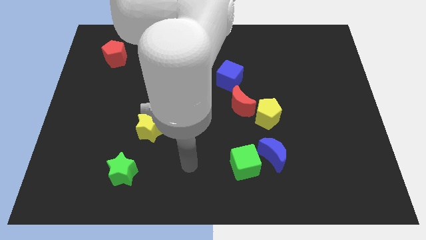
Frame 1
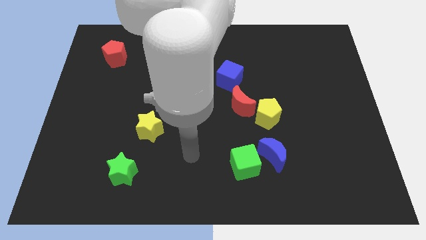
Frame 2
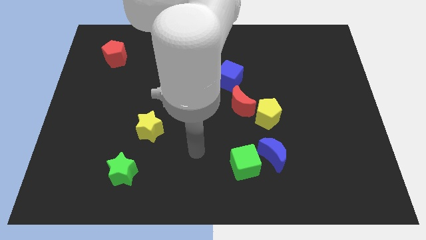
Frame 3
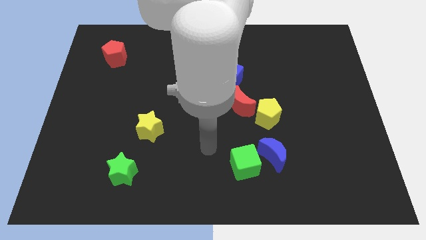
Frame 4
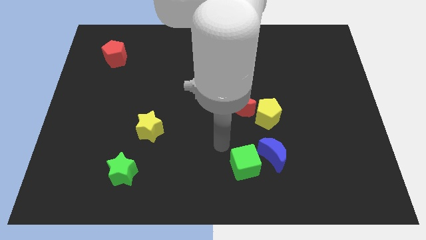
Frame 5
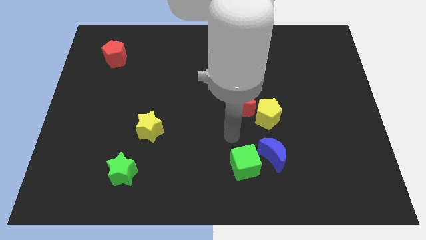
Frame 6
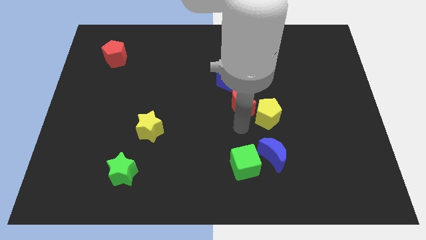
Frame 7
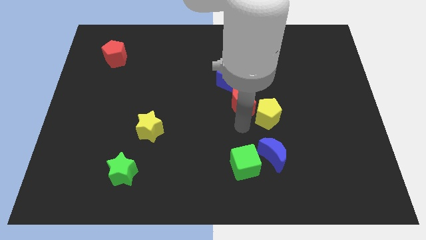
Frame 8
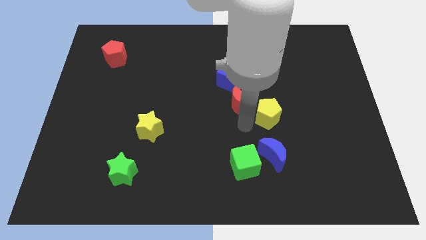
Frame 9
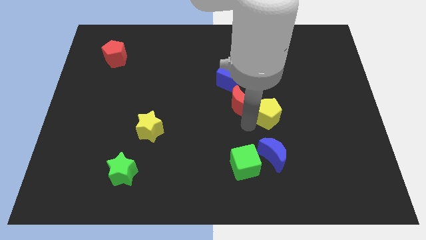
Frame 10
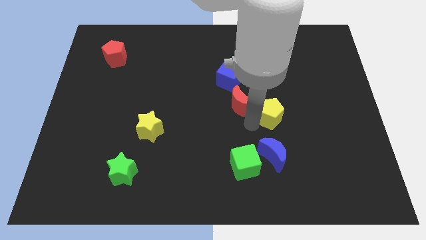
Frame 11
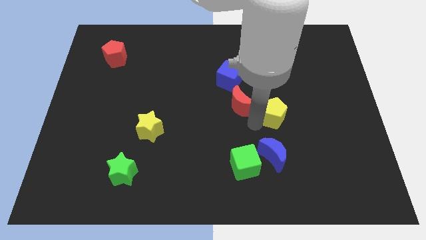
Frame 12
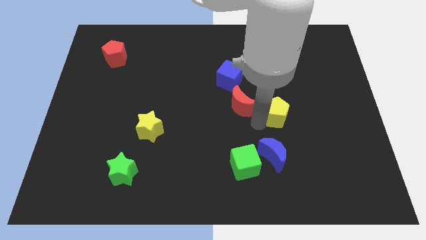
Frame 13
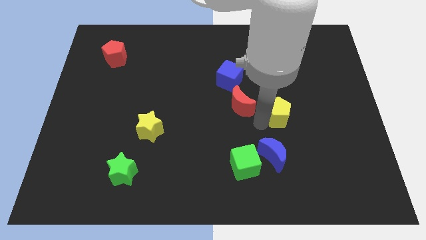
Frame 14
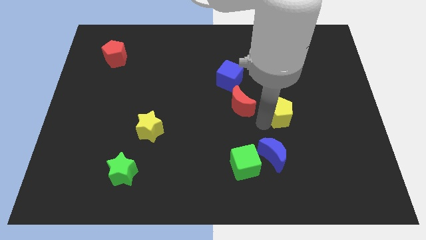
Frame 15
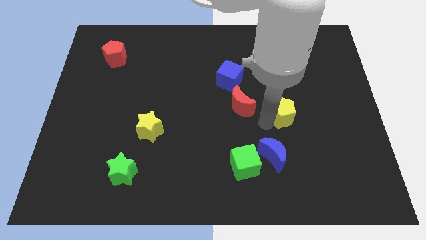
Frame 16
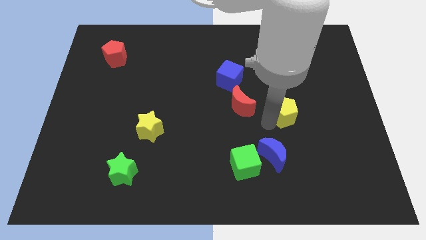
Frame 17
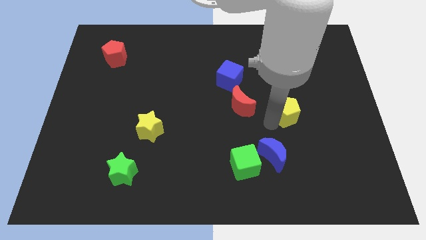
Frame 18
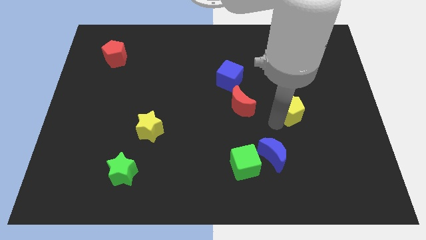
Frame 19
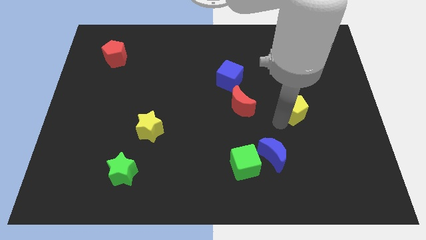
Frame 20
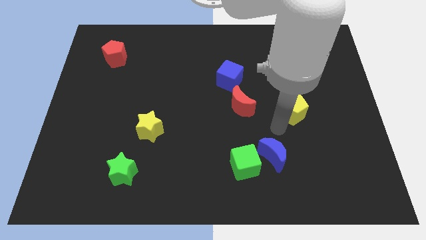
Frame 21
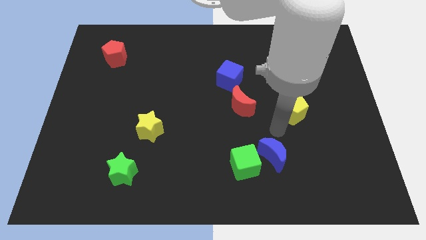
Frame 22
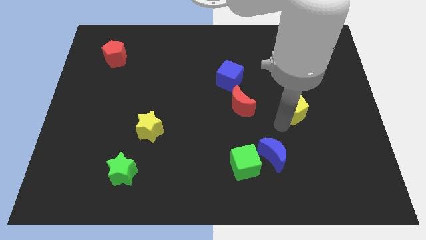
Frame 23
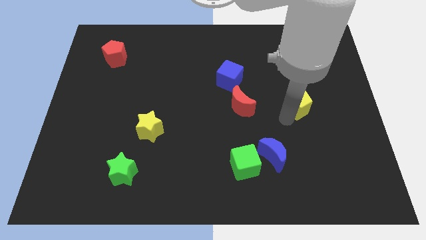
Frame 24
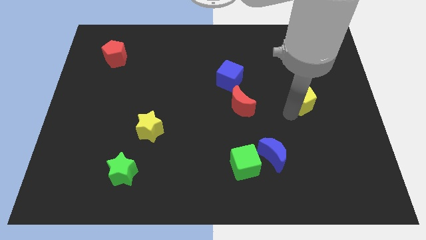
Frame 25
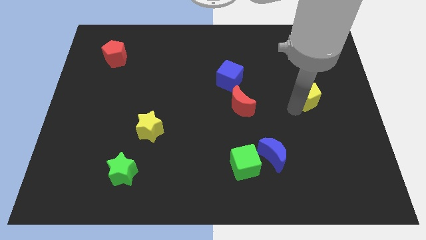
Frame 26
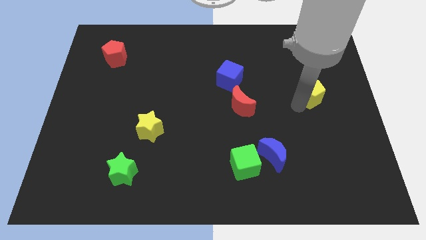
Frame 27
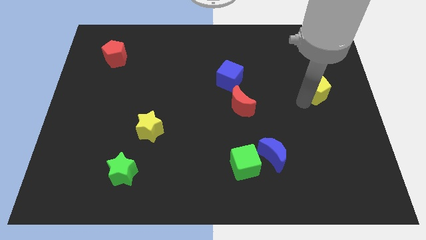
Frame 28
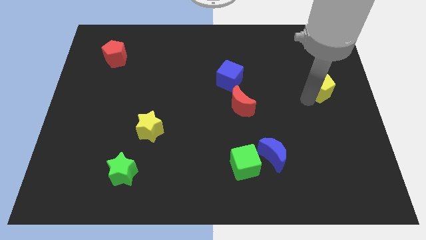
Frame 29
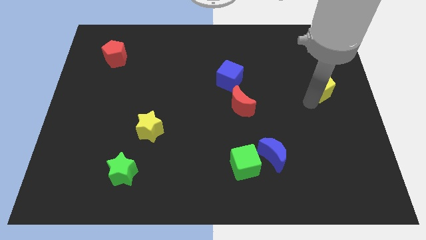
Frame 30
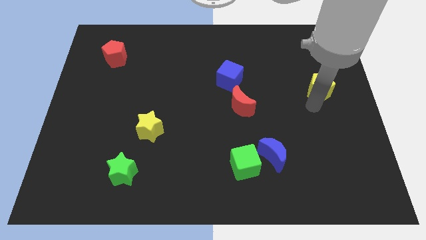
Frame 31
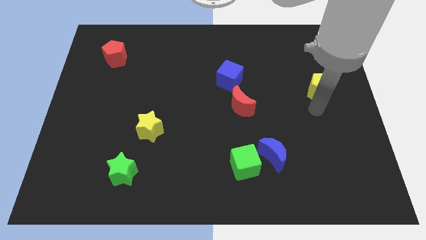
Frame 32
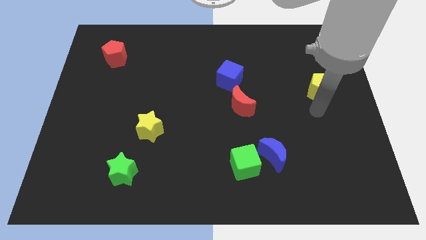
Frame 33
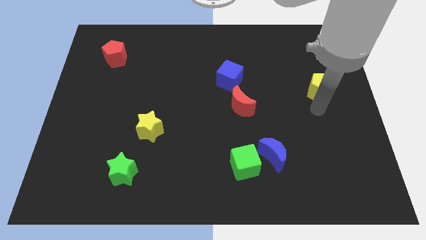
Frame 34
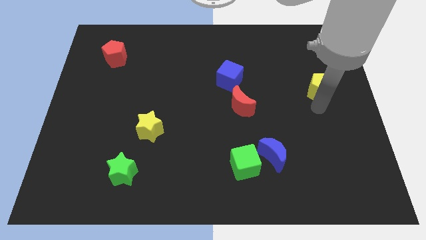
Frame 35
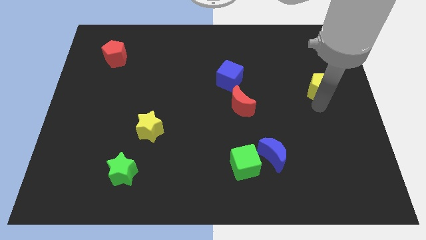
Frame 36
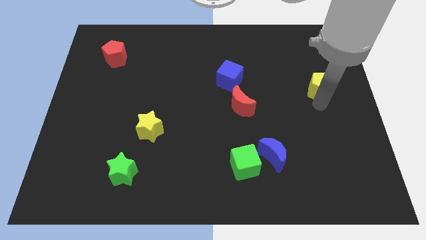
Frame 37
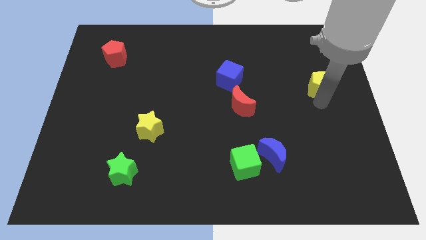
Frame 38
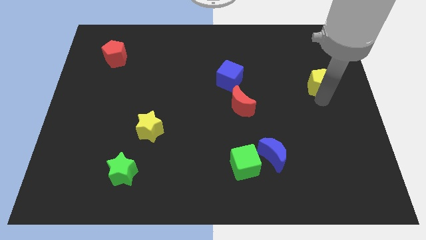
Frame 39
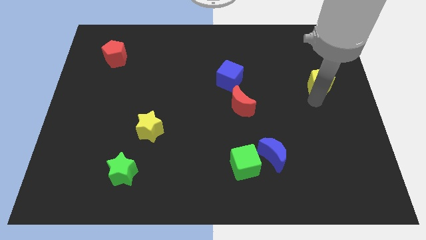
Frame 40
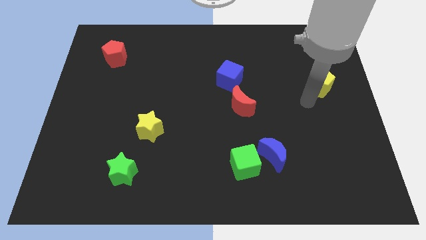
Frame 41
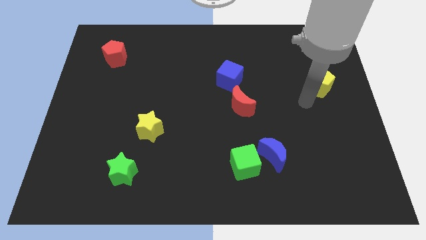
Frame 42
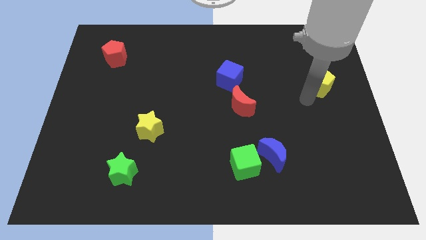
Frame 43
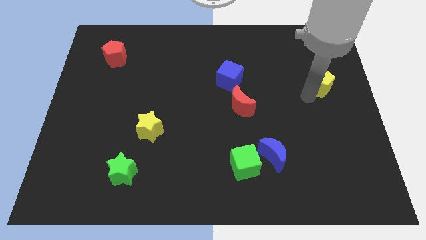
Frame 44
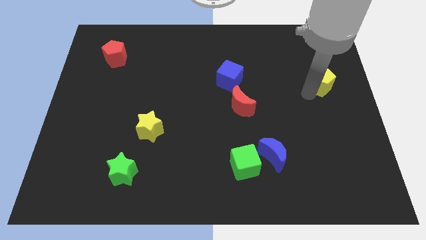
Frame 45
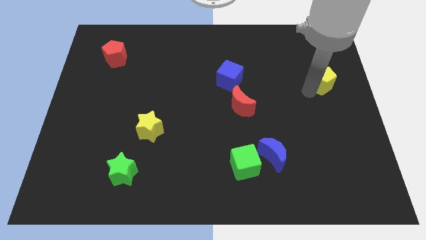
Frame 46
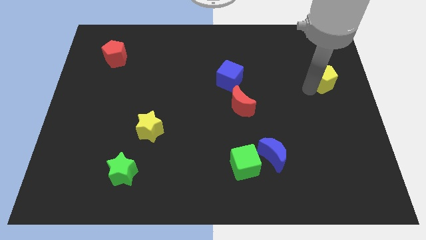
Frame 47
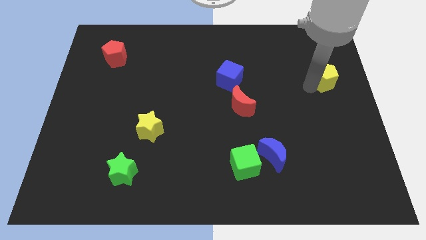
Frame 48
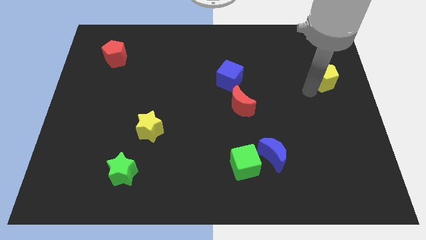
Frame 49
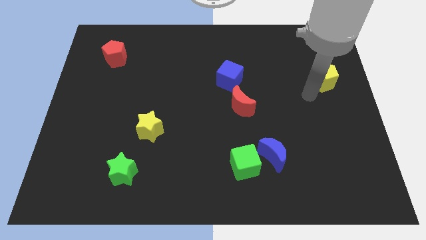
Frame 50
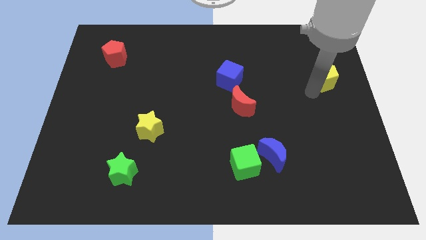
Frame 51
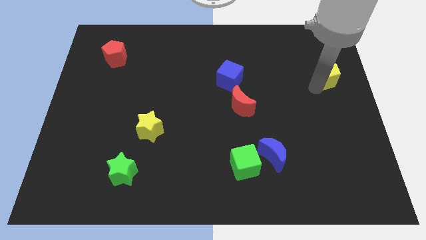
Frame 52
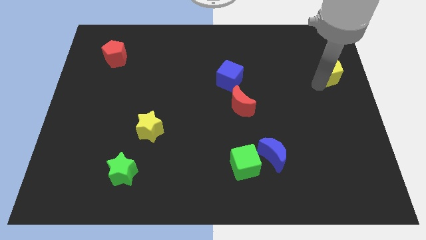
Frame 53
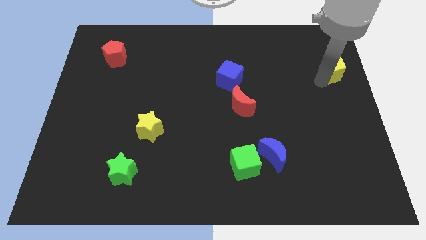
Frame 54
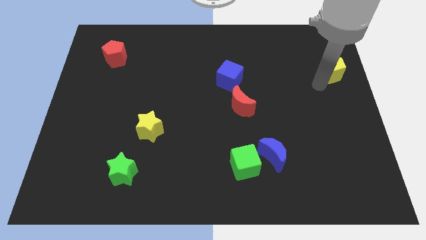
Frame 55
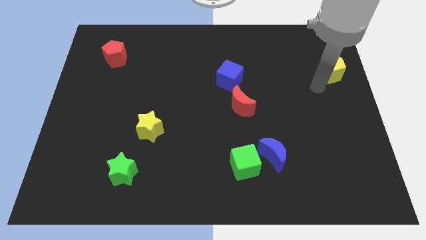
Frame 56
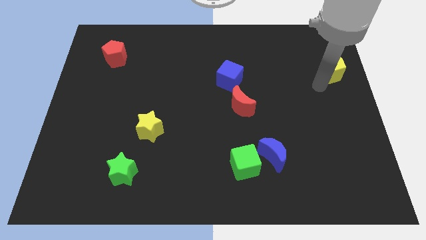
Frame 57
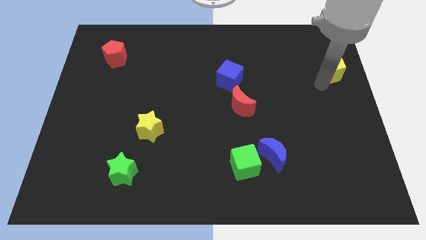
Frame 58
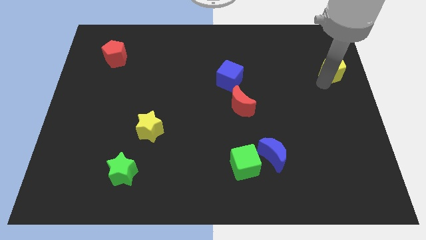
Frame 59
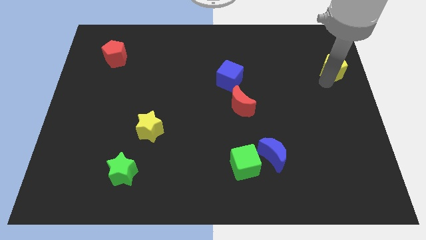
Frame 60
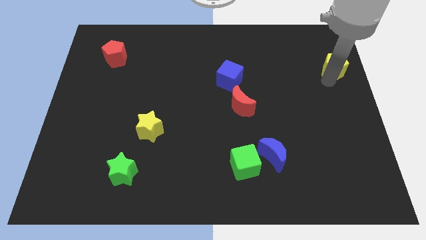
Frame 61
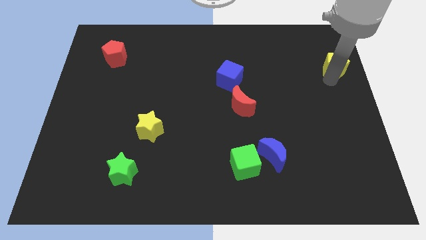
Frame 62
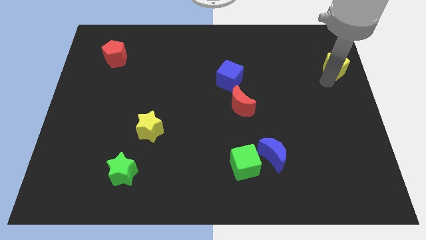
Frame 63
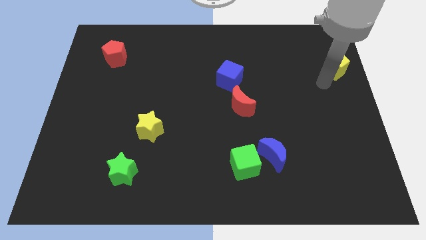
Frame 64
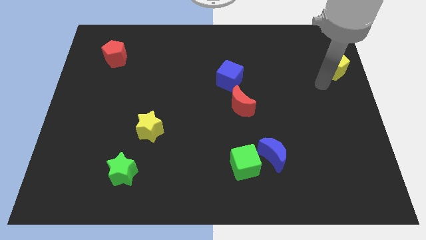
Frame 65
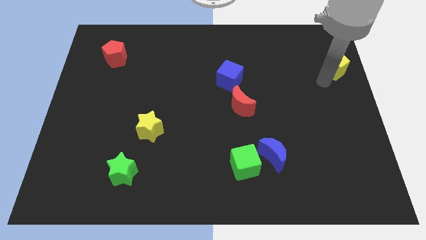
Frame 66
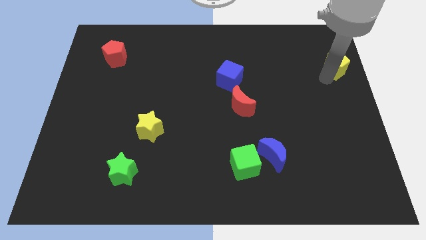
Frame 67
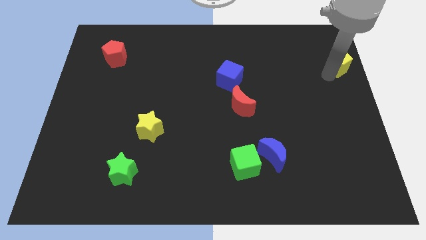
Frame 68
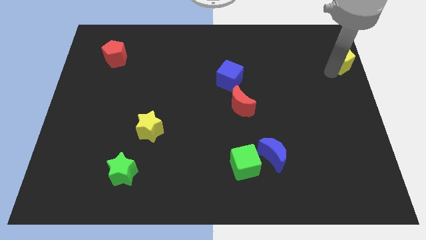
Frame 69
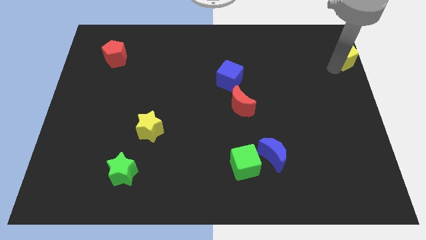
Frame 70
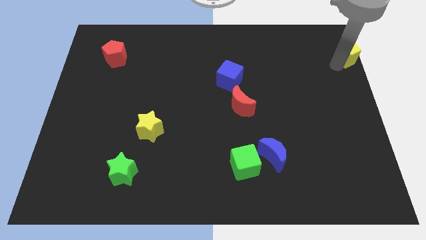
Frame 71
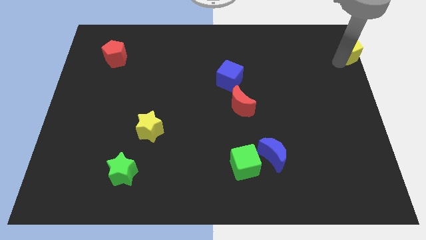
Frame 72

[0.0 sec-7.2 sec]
slide the yellow pentagon to the top right
